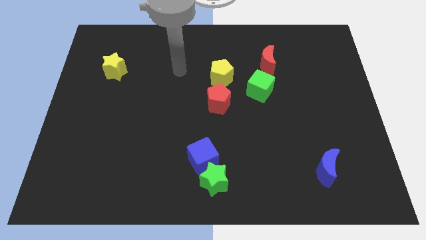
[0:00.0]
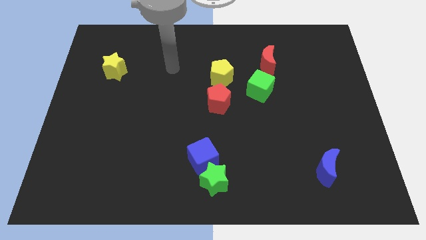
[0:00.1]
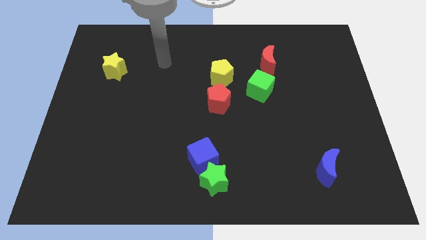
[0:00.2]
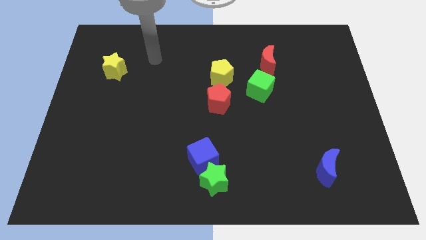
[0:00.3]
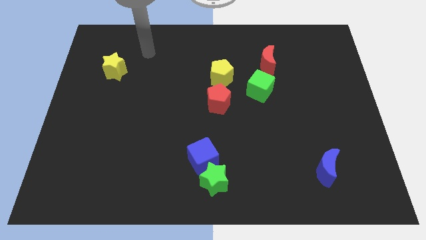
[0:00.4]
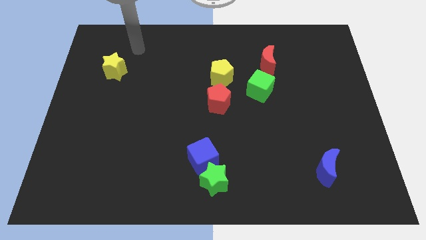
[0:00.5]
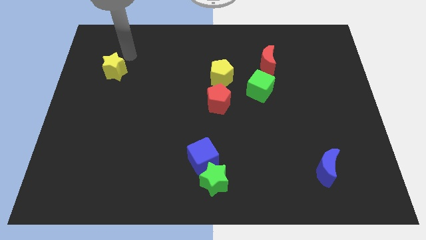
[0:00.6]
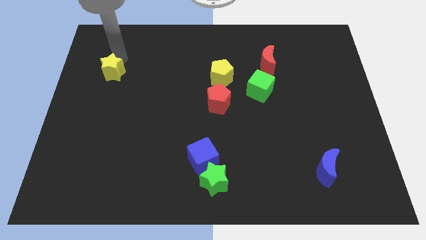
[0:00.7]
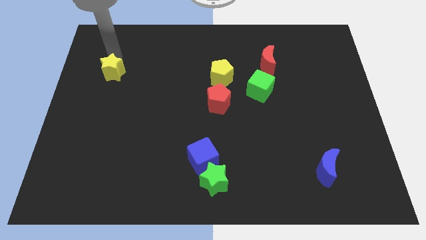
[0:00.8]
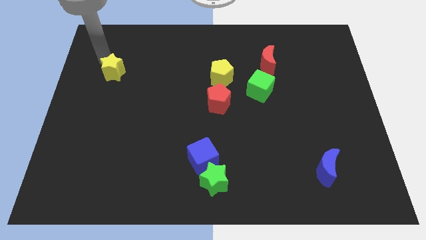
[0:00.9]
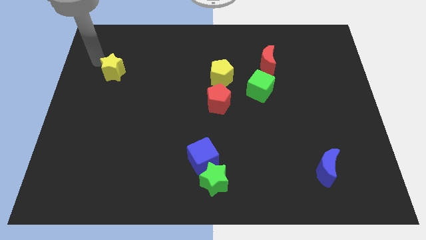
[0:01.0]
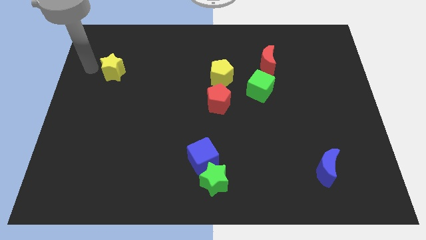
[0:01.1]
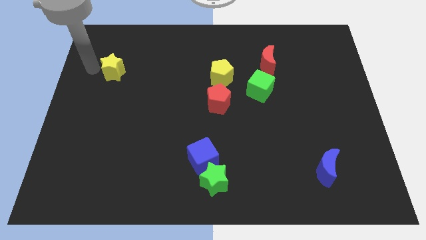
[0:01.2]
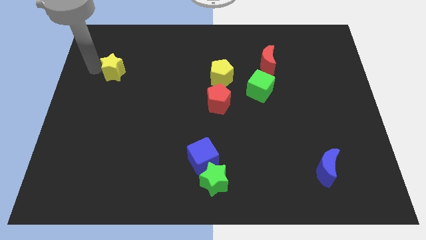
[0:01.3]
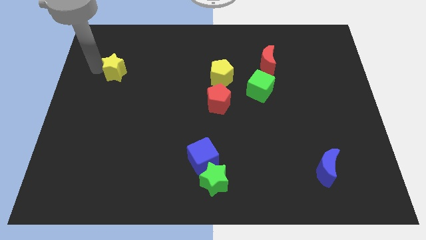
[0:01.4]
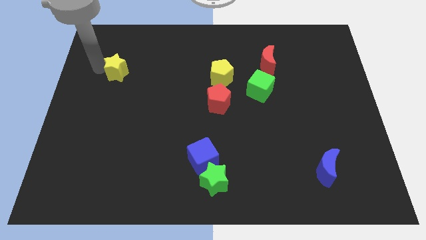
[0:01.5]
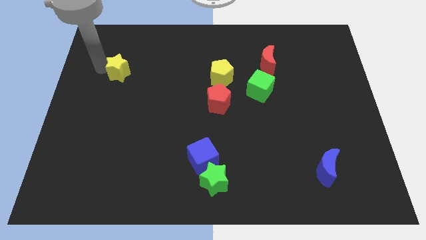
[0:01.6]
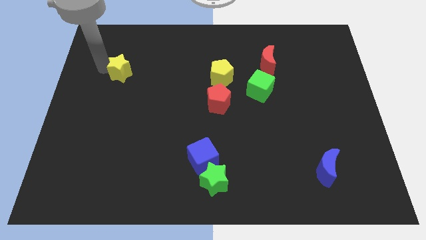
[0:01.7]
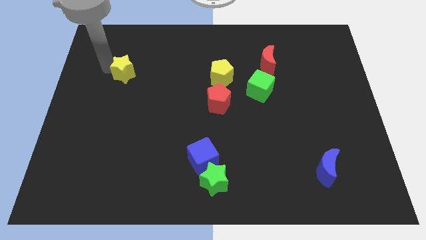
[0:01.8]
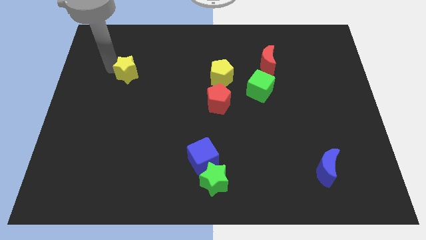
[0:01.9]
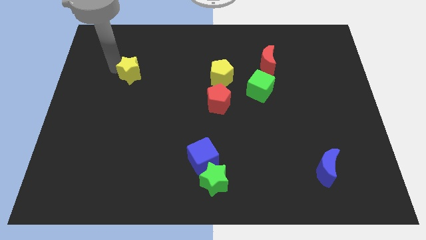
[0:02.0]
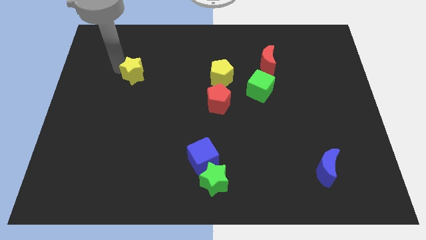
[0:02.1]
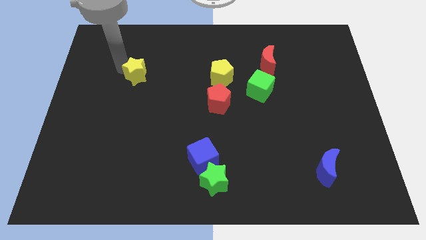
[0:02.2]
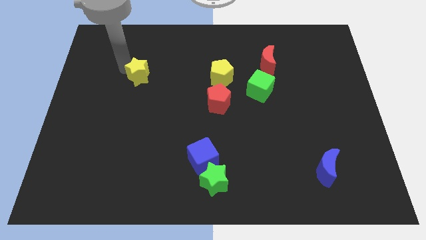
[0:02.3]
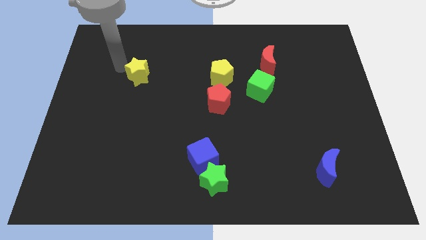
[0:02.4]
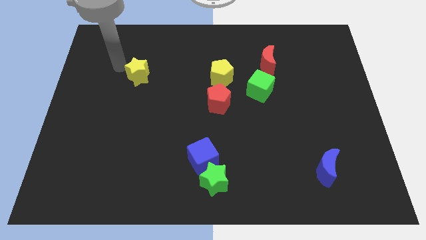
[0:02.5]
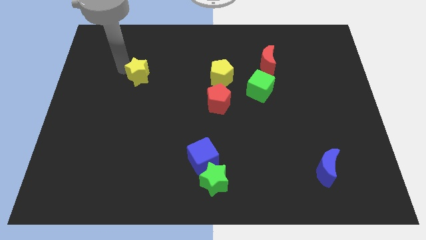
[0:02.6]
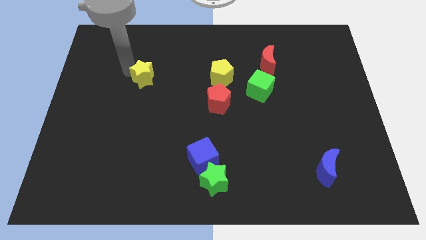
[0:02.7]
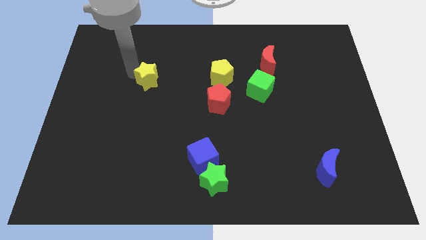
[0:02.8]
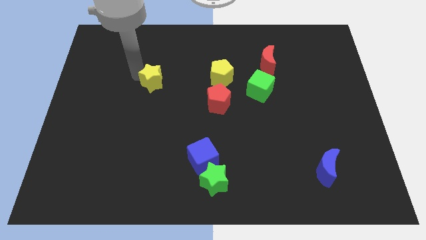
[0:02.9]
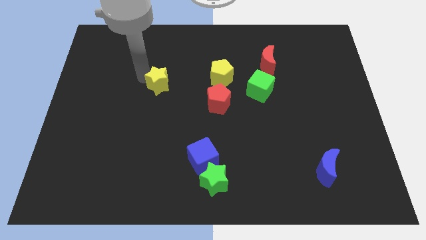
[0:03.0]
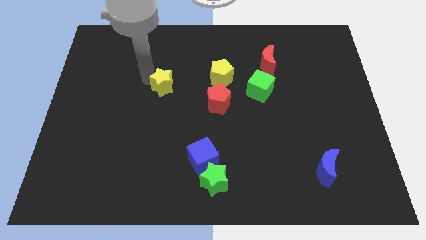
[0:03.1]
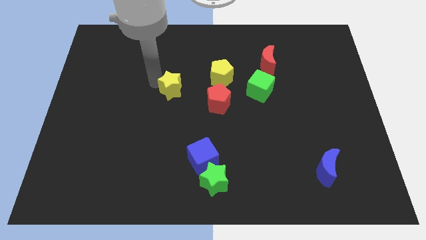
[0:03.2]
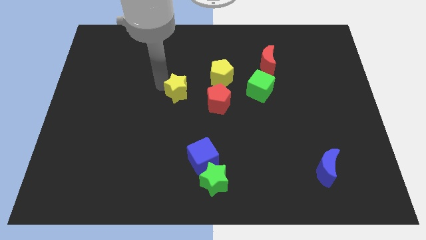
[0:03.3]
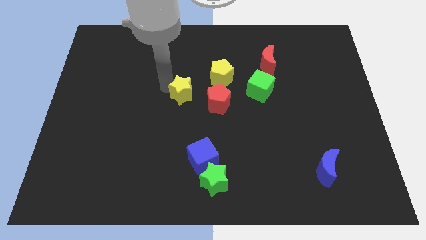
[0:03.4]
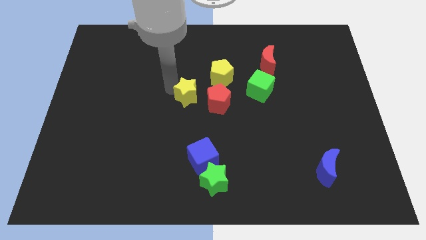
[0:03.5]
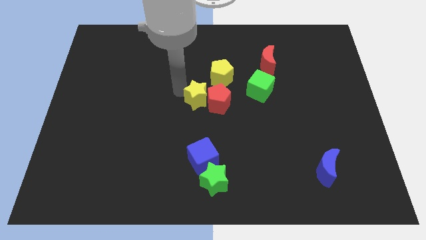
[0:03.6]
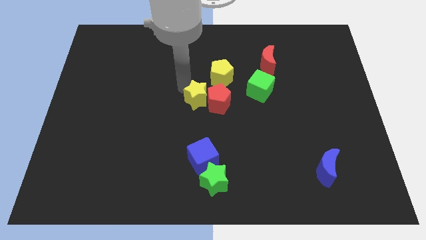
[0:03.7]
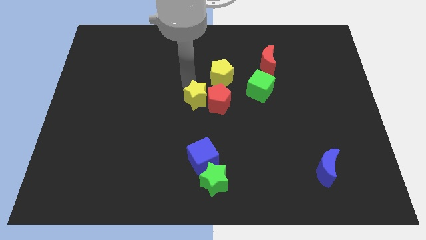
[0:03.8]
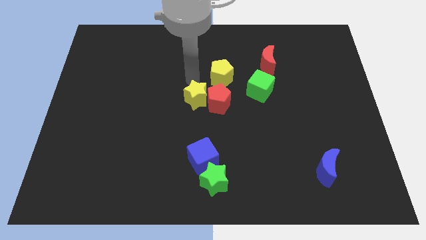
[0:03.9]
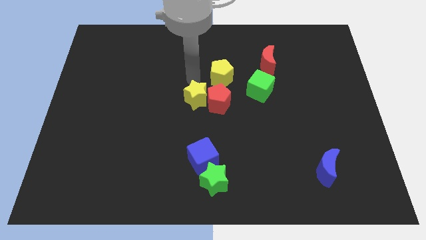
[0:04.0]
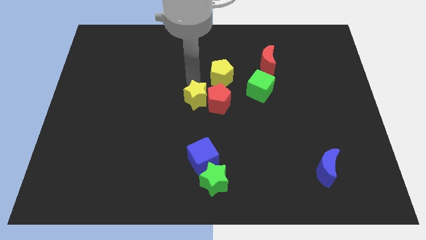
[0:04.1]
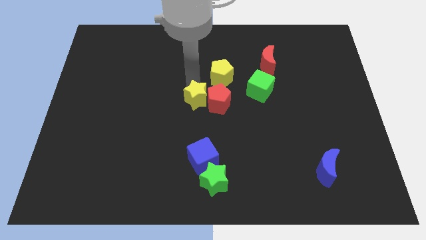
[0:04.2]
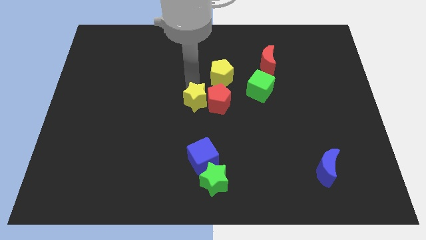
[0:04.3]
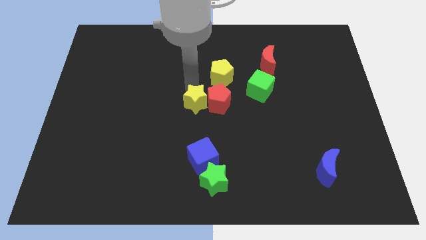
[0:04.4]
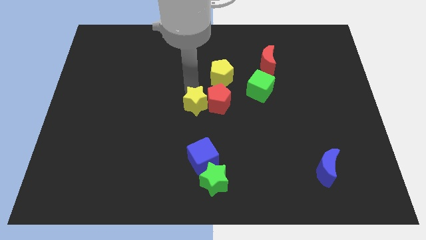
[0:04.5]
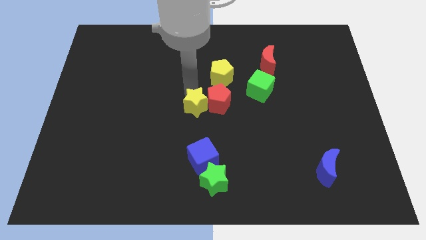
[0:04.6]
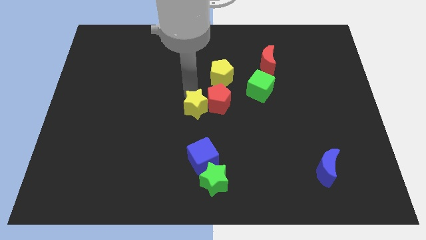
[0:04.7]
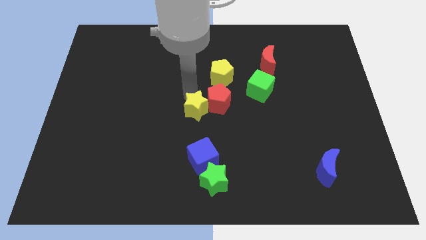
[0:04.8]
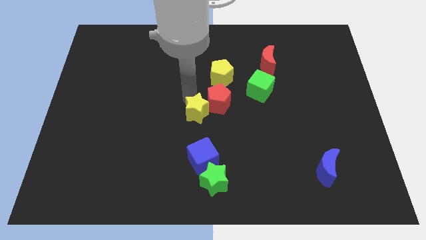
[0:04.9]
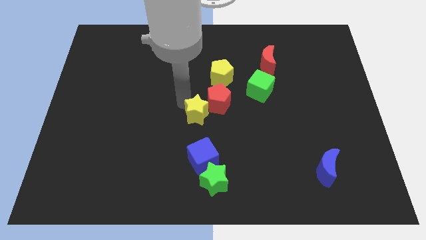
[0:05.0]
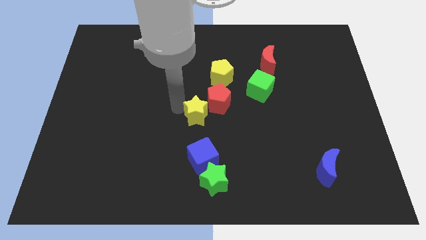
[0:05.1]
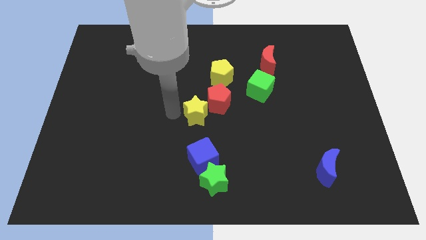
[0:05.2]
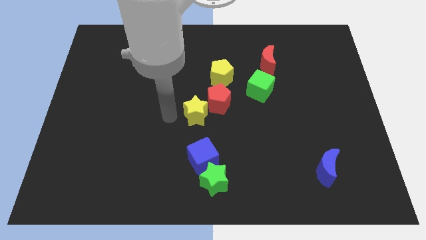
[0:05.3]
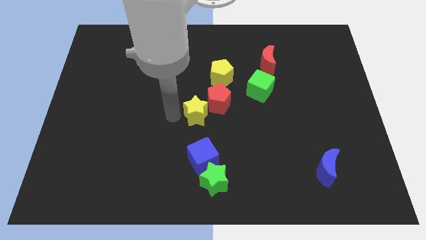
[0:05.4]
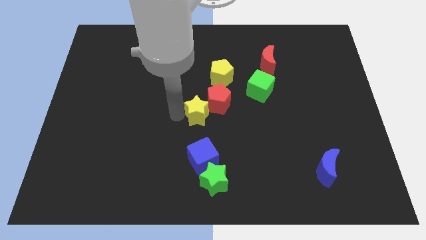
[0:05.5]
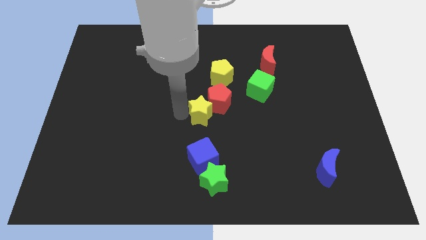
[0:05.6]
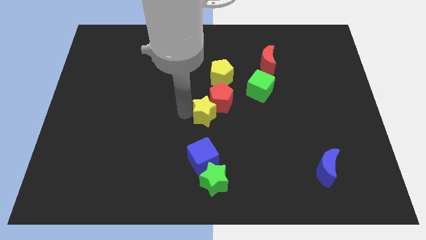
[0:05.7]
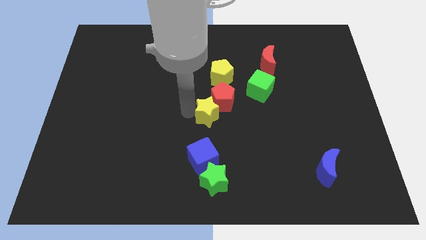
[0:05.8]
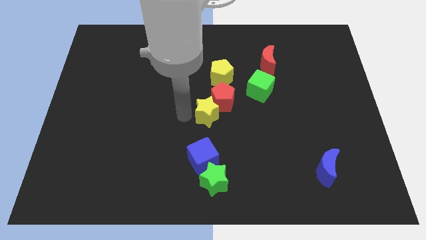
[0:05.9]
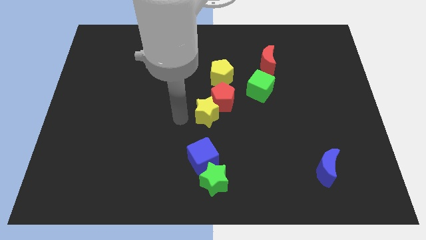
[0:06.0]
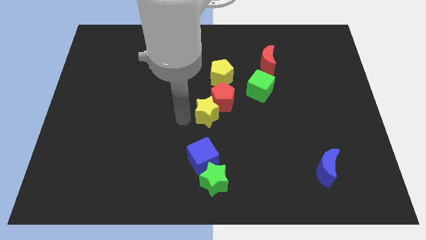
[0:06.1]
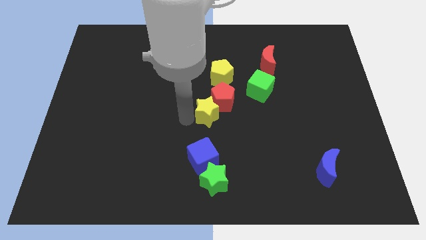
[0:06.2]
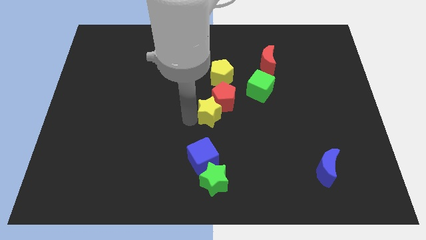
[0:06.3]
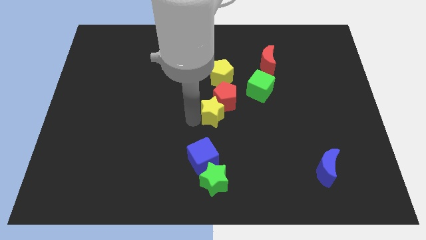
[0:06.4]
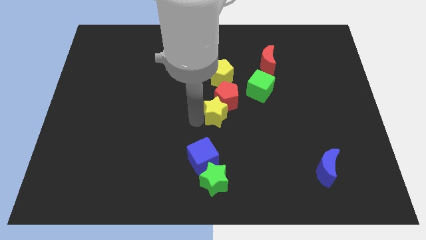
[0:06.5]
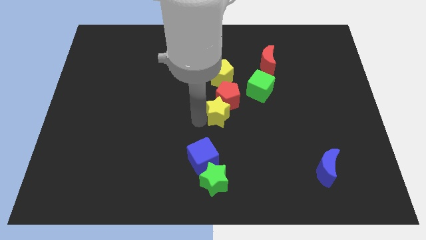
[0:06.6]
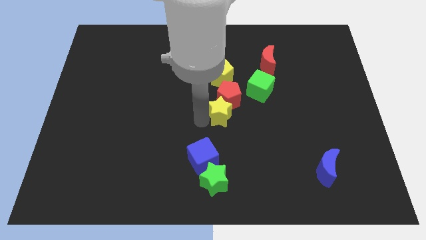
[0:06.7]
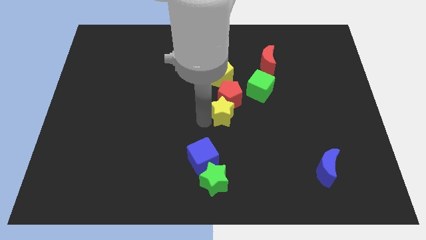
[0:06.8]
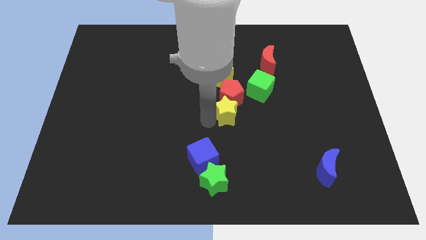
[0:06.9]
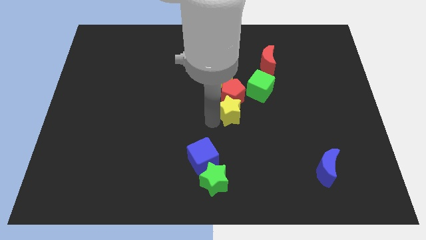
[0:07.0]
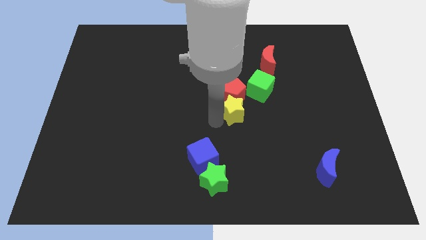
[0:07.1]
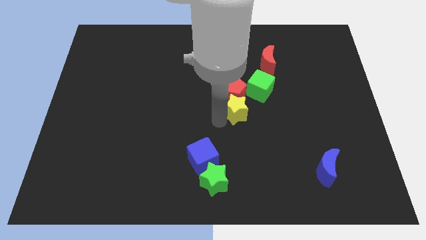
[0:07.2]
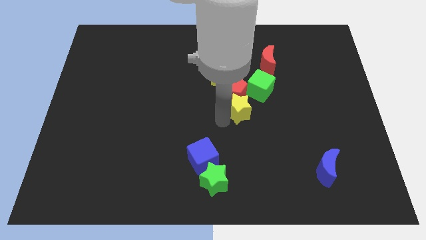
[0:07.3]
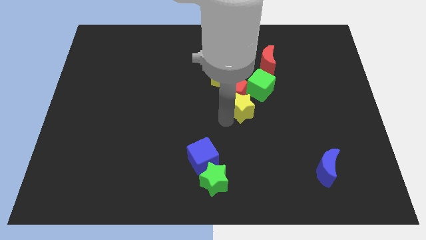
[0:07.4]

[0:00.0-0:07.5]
move the yellow star diagonally down and to the right of the yellow pentagon
